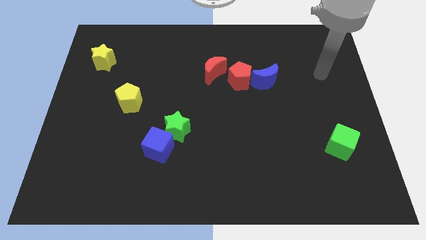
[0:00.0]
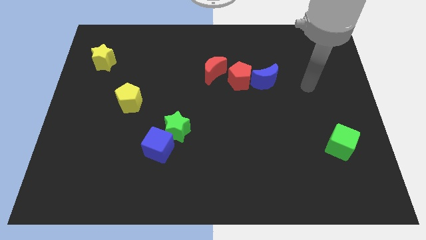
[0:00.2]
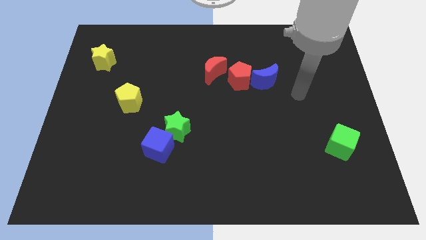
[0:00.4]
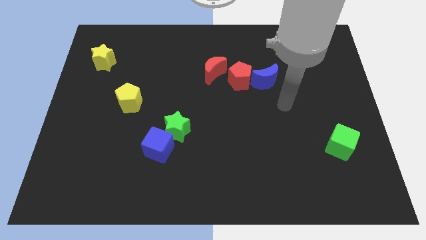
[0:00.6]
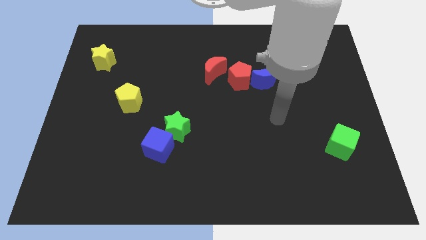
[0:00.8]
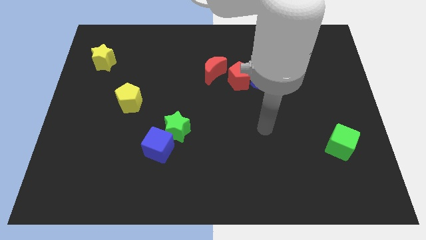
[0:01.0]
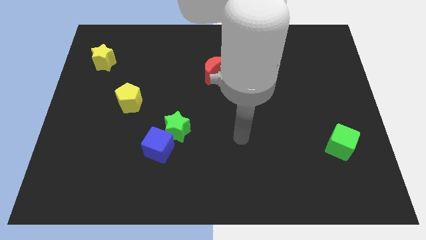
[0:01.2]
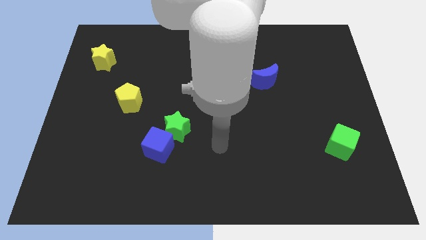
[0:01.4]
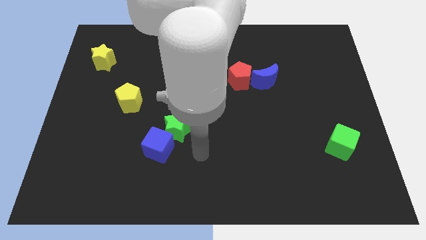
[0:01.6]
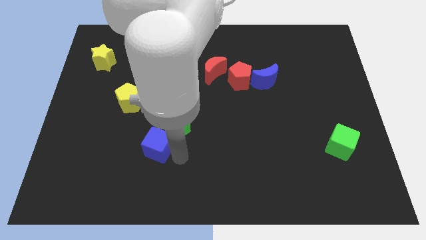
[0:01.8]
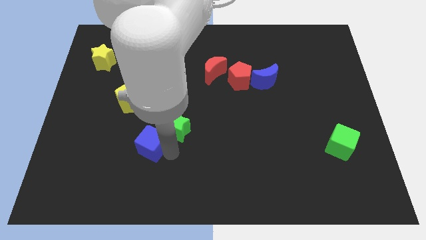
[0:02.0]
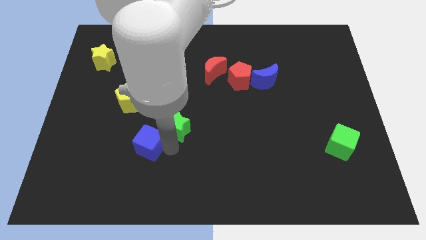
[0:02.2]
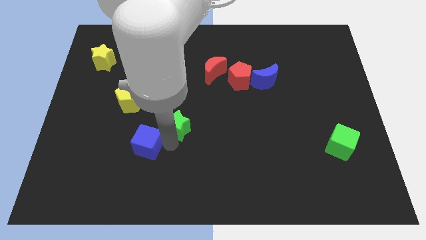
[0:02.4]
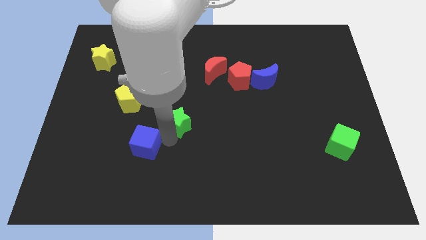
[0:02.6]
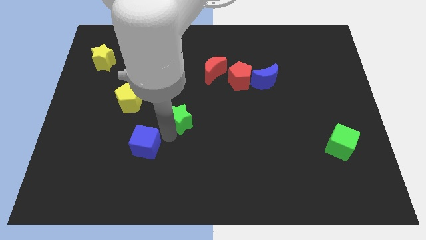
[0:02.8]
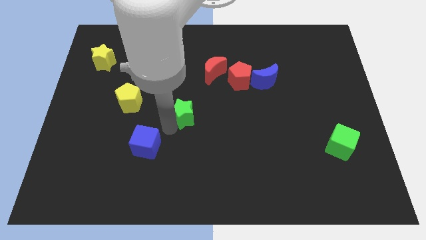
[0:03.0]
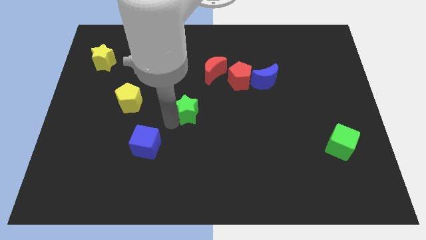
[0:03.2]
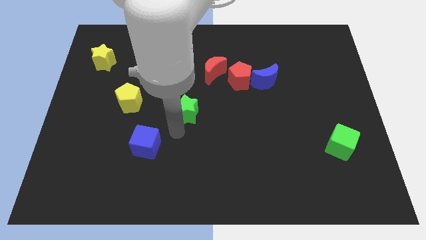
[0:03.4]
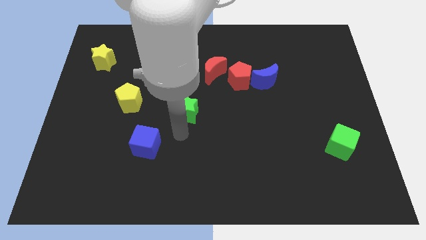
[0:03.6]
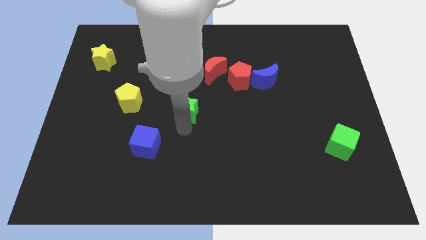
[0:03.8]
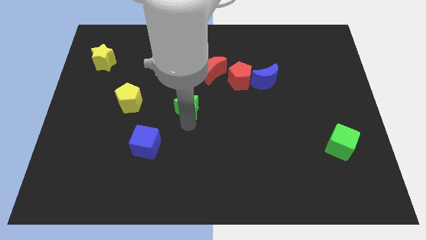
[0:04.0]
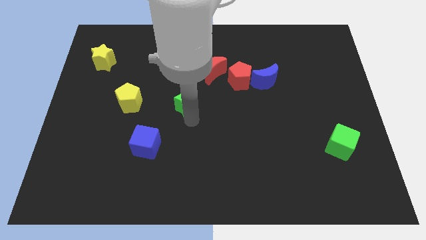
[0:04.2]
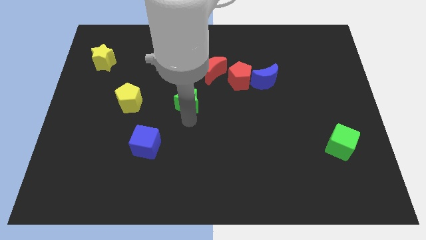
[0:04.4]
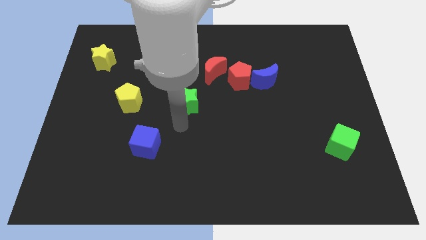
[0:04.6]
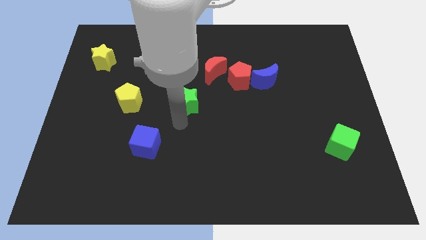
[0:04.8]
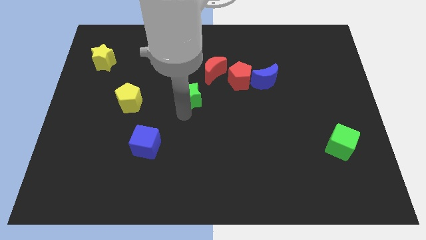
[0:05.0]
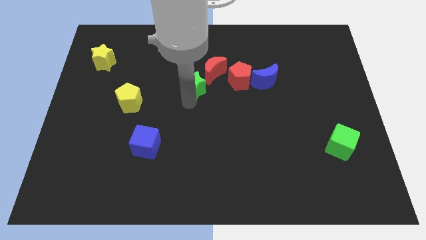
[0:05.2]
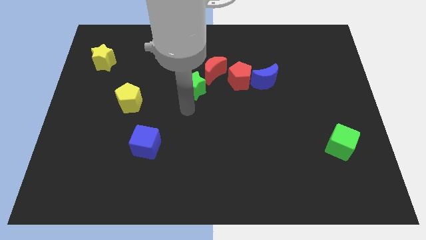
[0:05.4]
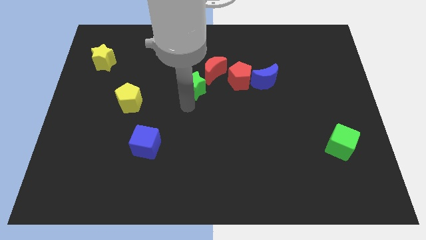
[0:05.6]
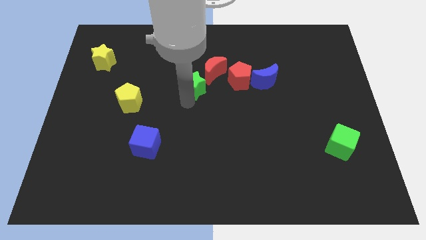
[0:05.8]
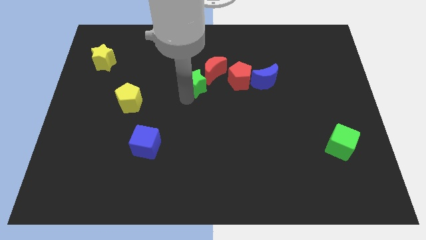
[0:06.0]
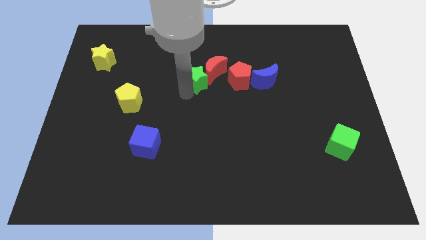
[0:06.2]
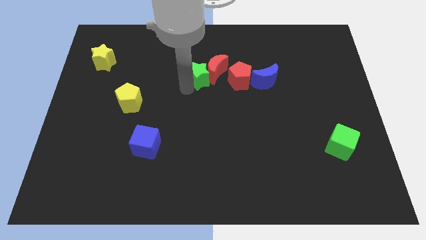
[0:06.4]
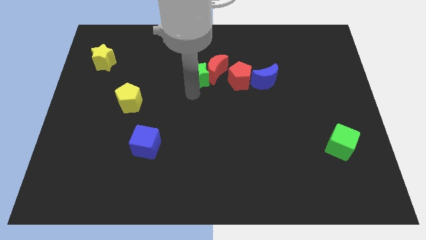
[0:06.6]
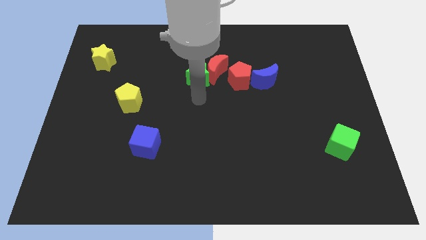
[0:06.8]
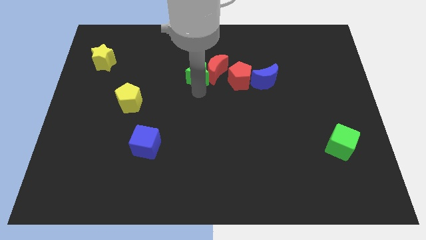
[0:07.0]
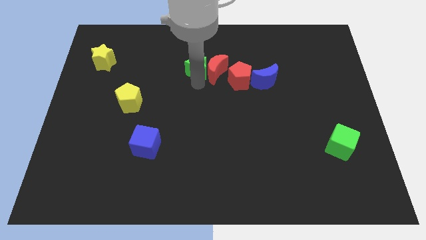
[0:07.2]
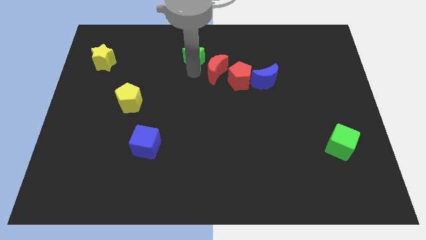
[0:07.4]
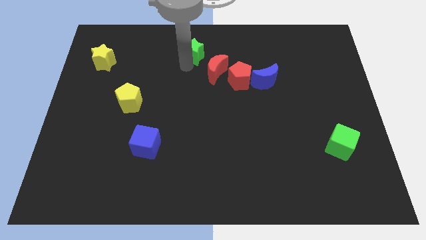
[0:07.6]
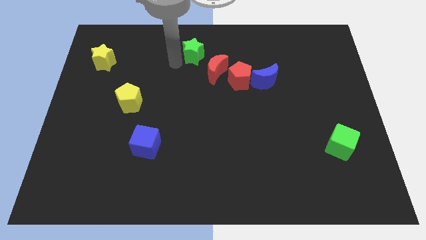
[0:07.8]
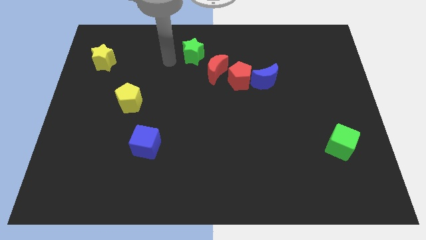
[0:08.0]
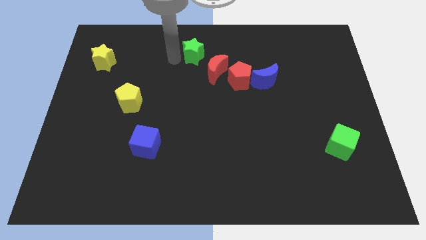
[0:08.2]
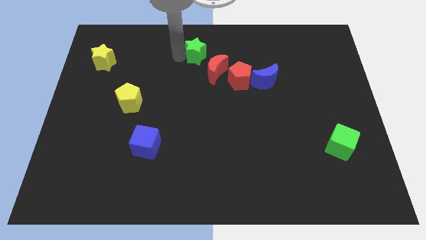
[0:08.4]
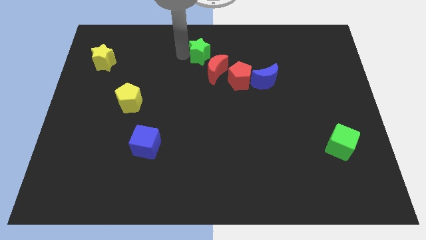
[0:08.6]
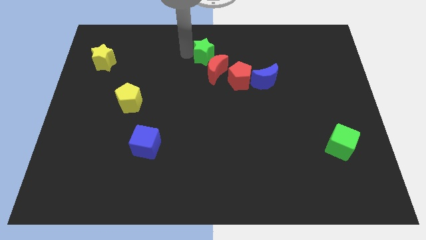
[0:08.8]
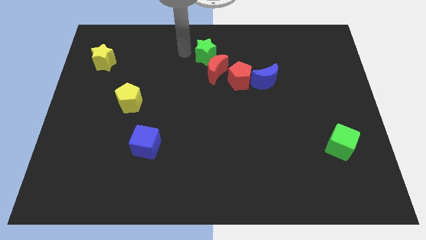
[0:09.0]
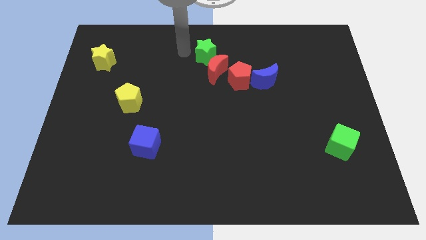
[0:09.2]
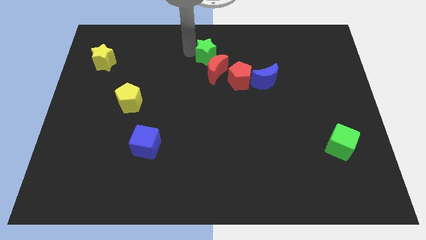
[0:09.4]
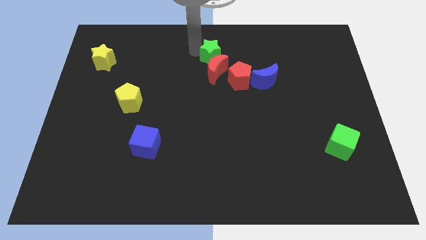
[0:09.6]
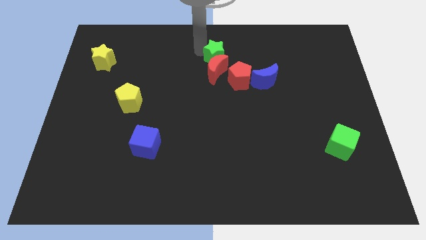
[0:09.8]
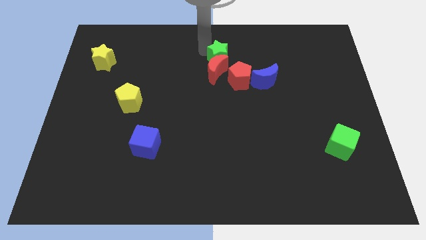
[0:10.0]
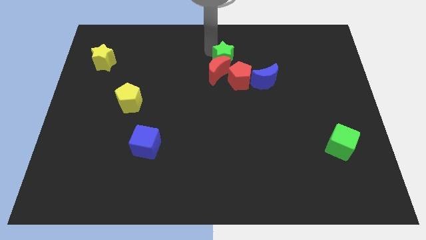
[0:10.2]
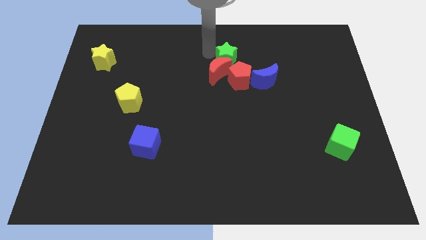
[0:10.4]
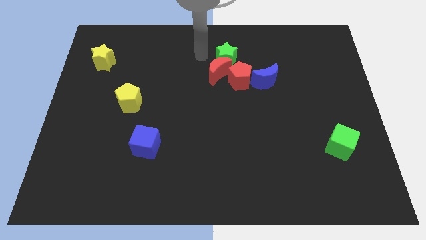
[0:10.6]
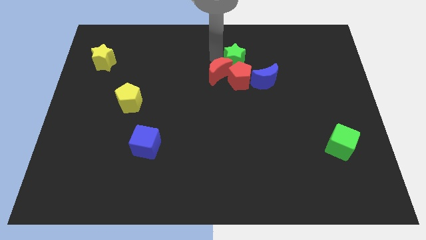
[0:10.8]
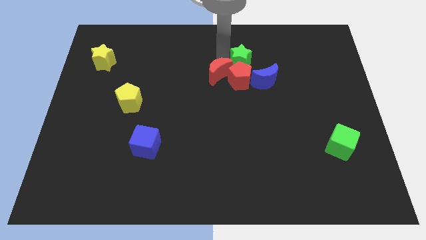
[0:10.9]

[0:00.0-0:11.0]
slide the green star to the top right side of the red pentagon

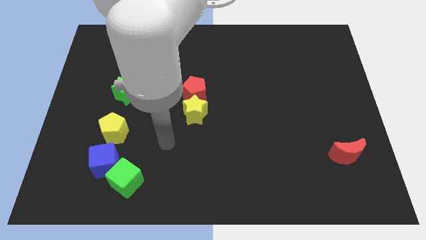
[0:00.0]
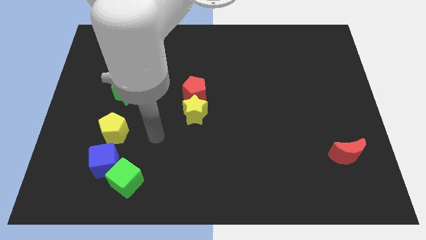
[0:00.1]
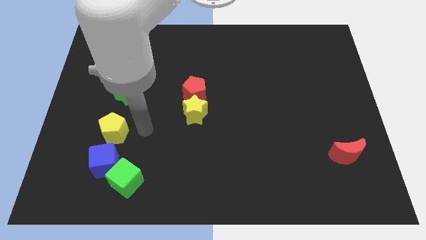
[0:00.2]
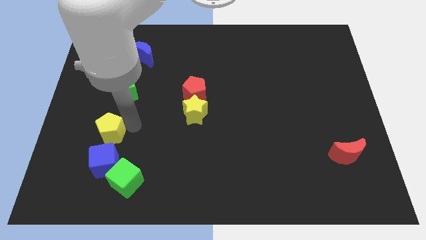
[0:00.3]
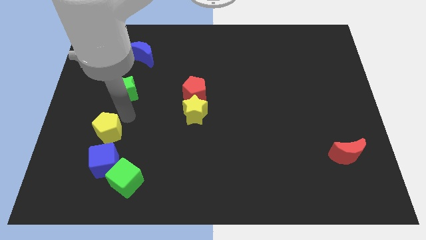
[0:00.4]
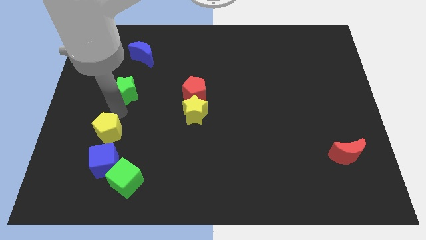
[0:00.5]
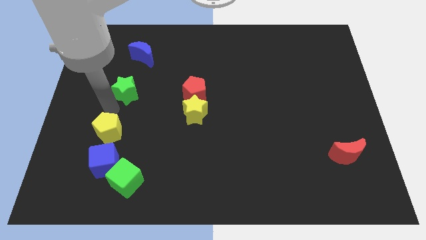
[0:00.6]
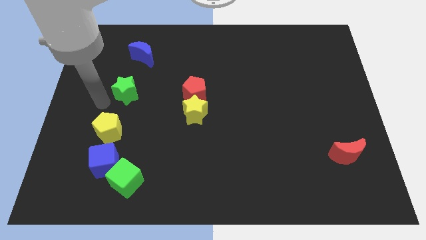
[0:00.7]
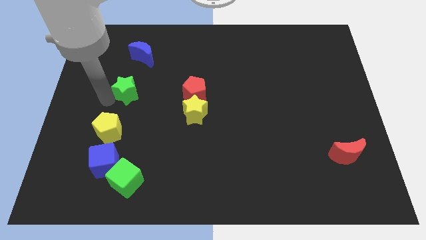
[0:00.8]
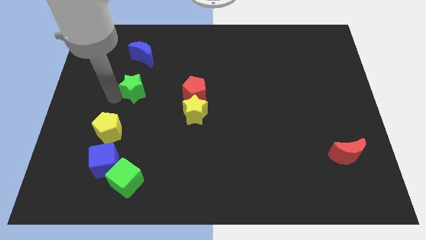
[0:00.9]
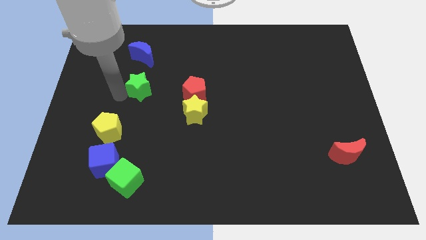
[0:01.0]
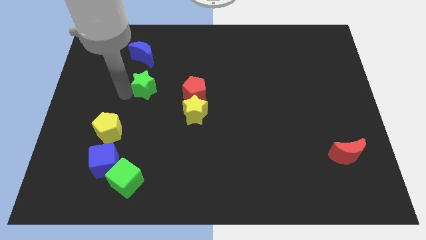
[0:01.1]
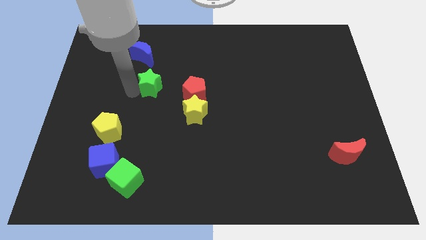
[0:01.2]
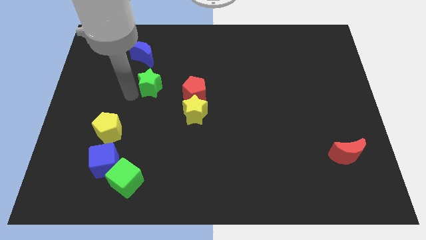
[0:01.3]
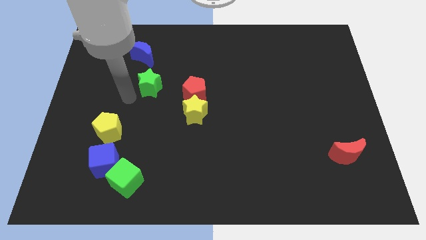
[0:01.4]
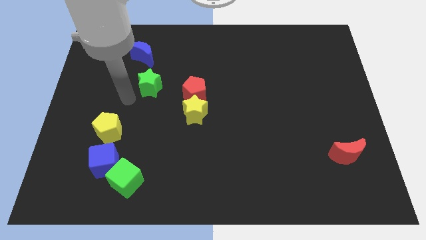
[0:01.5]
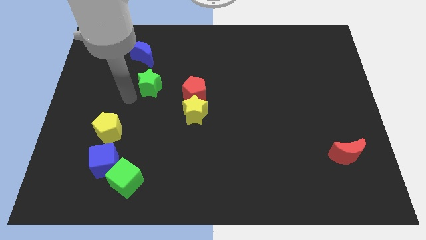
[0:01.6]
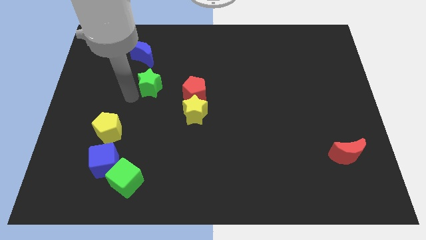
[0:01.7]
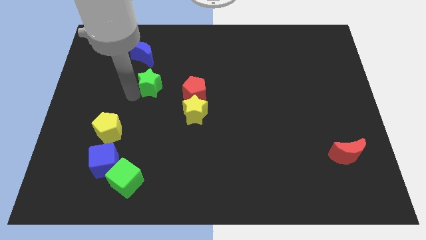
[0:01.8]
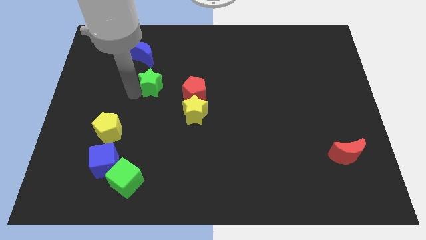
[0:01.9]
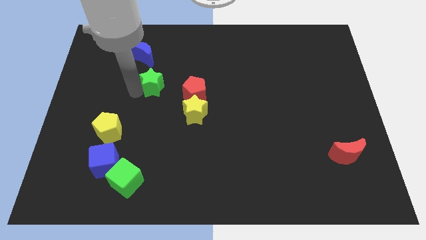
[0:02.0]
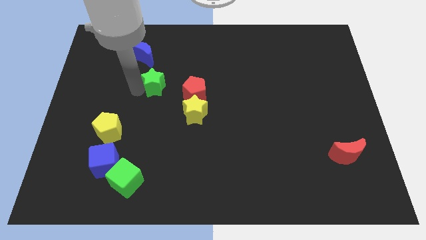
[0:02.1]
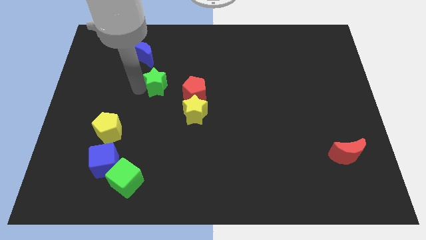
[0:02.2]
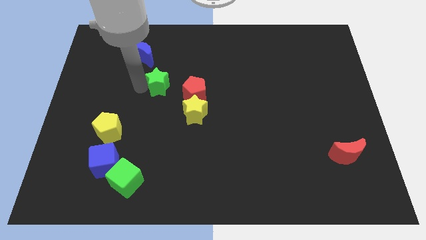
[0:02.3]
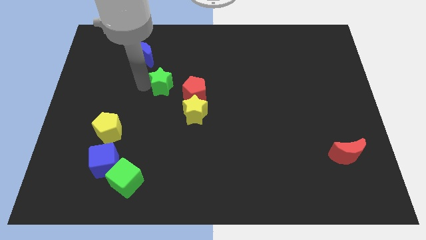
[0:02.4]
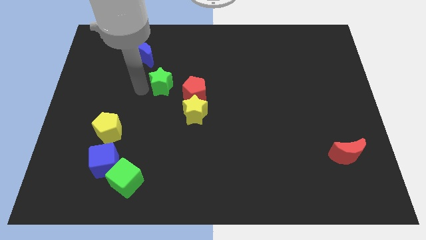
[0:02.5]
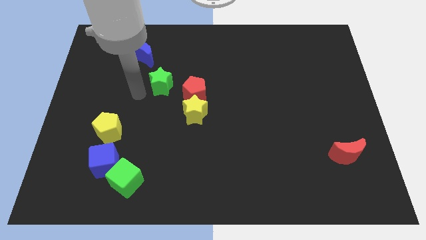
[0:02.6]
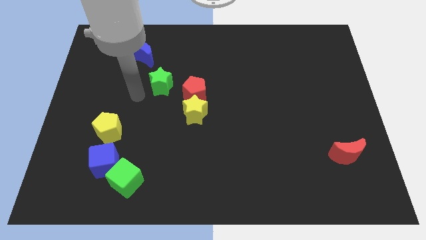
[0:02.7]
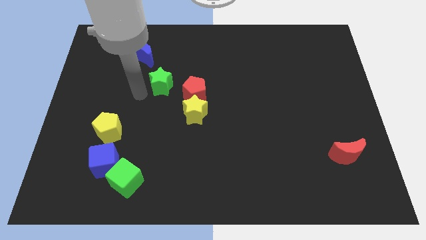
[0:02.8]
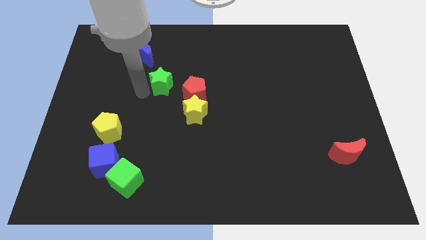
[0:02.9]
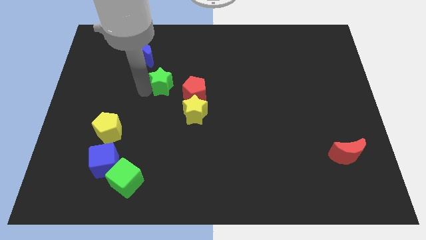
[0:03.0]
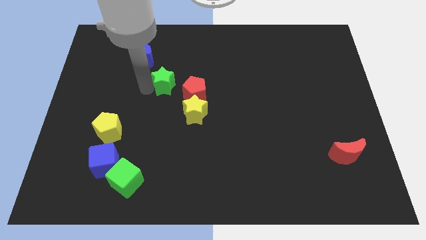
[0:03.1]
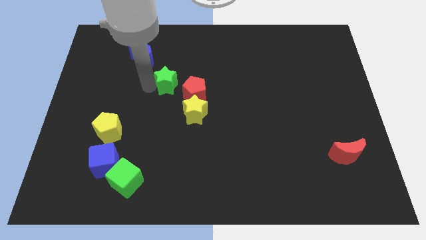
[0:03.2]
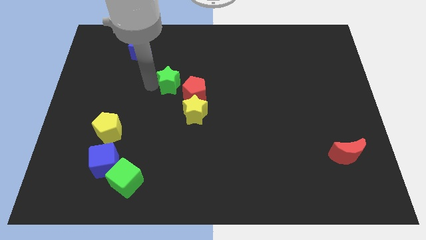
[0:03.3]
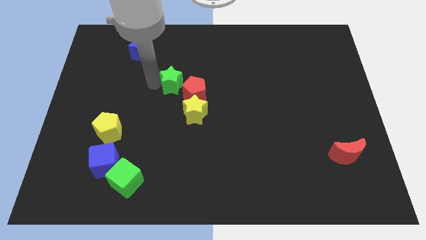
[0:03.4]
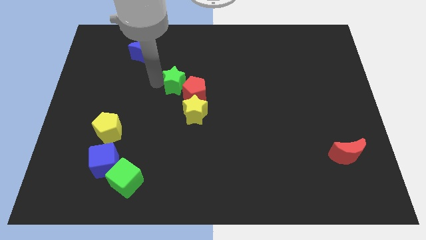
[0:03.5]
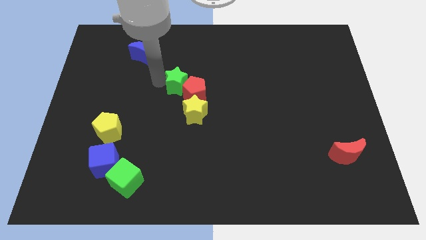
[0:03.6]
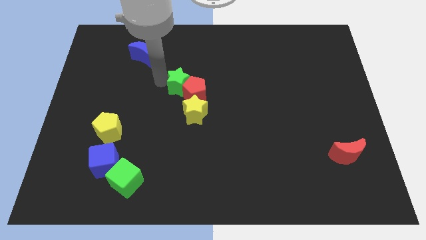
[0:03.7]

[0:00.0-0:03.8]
move the green star to the top side of the red pentagon
